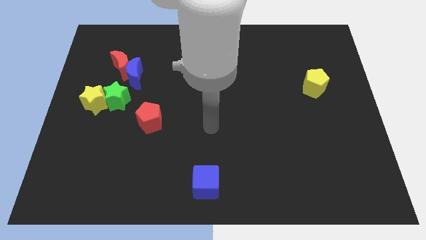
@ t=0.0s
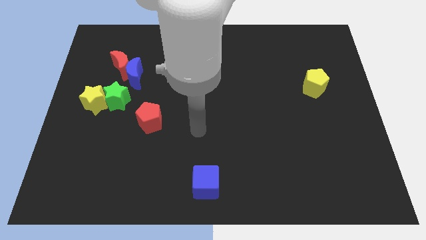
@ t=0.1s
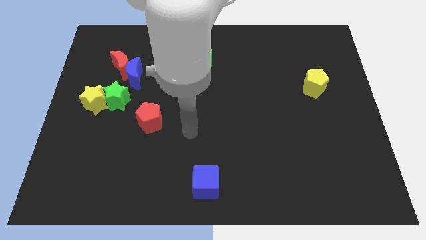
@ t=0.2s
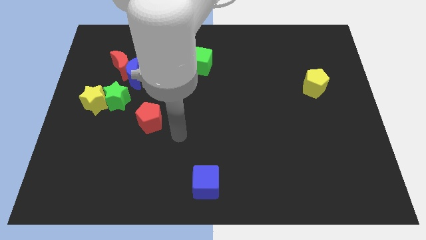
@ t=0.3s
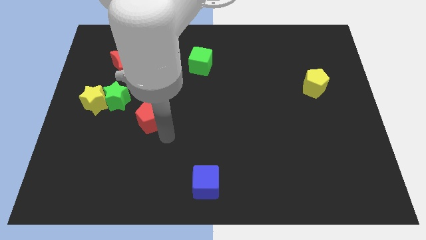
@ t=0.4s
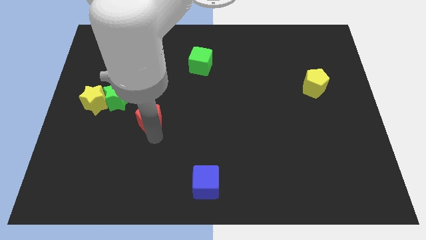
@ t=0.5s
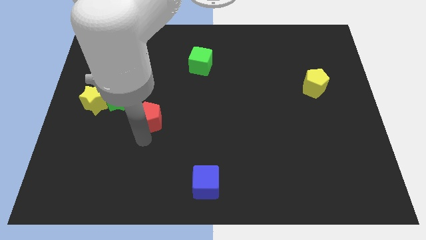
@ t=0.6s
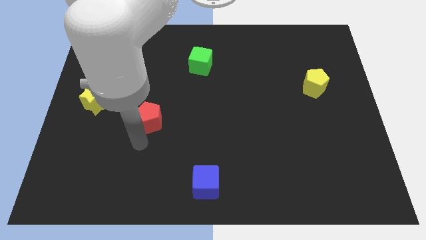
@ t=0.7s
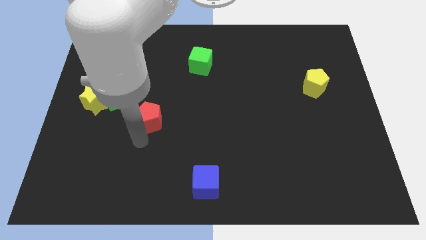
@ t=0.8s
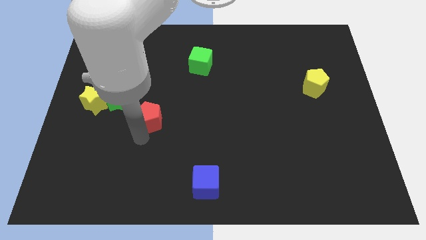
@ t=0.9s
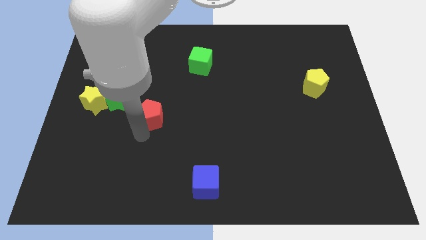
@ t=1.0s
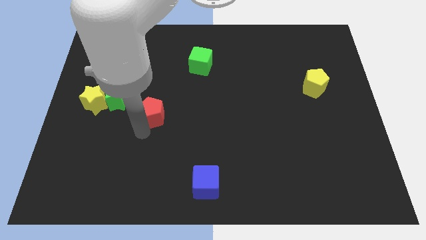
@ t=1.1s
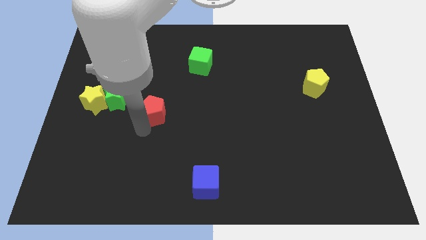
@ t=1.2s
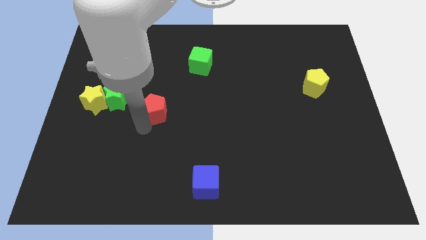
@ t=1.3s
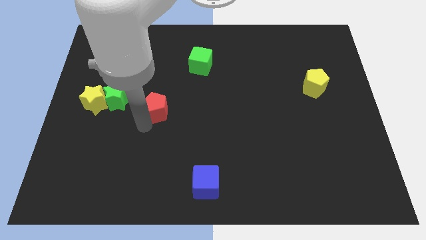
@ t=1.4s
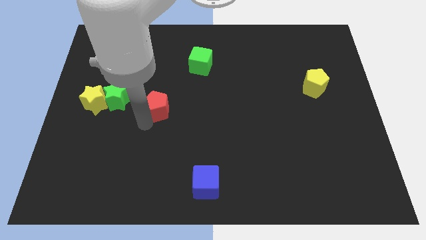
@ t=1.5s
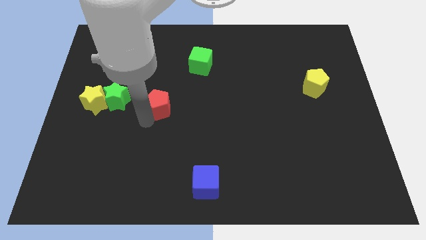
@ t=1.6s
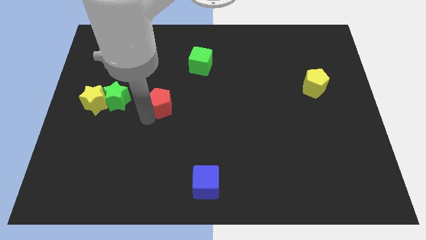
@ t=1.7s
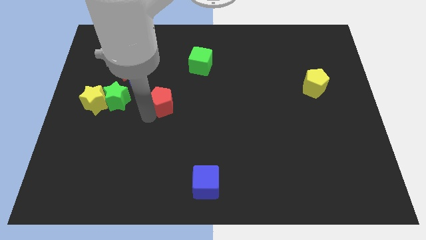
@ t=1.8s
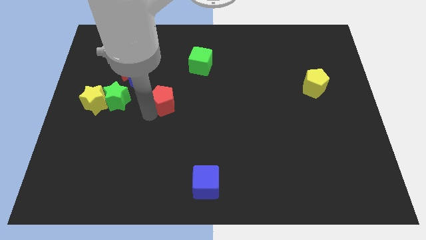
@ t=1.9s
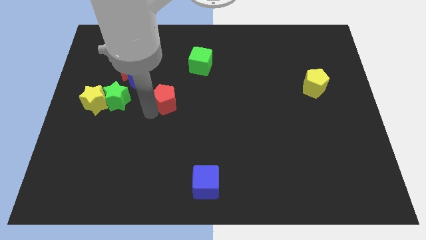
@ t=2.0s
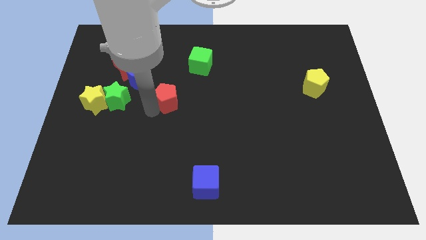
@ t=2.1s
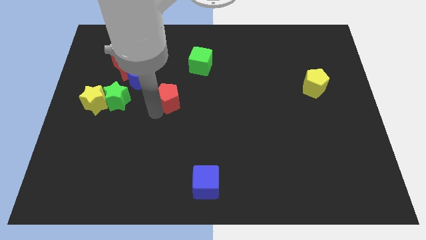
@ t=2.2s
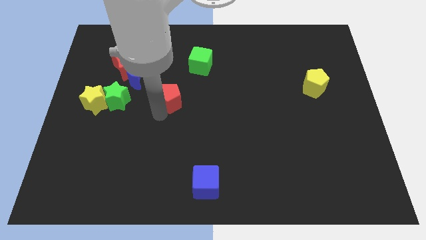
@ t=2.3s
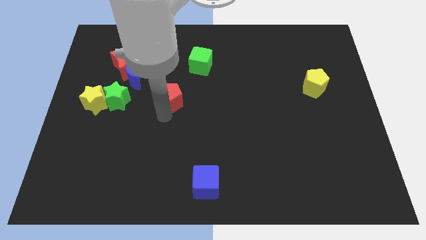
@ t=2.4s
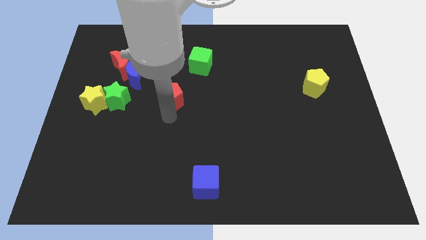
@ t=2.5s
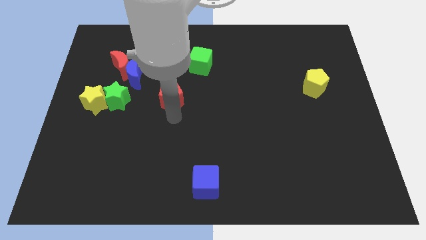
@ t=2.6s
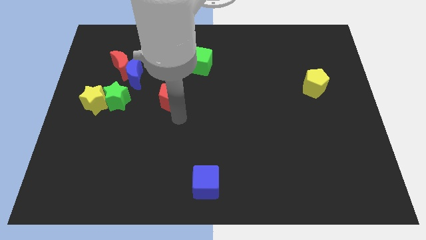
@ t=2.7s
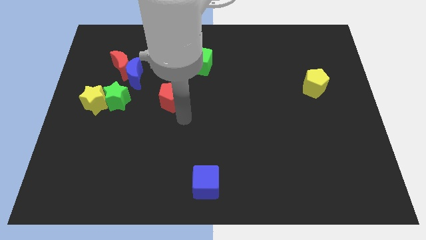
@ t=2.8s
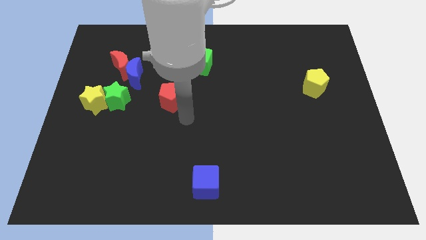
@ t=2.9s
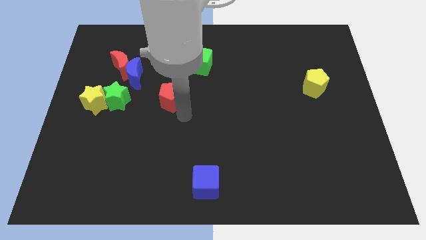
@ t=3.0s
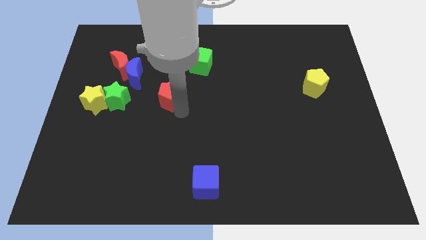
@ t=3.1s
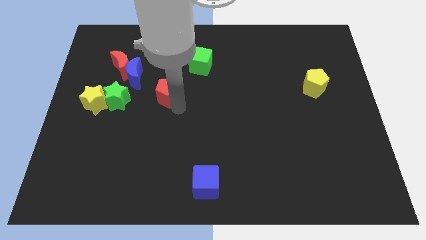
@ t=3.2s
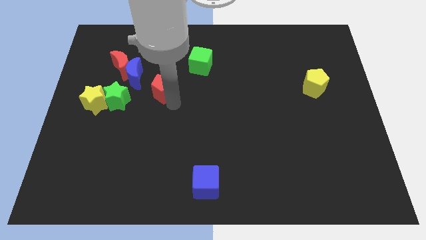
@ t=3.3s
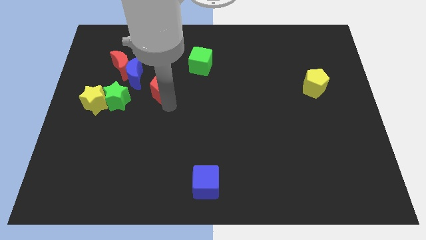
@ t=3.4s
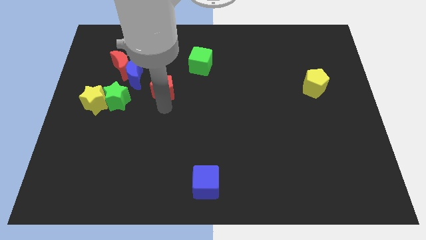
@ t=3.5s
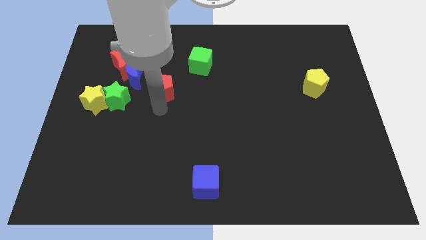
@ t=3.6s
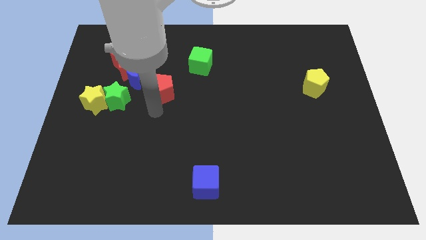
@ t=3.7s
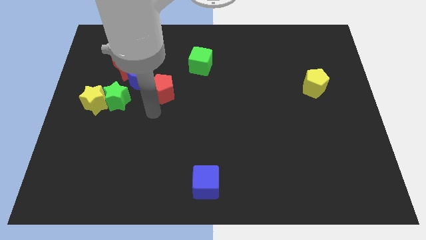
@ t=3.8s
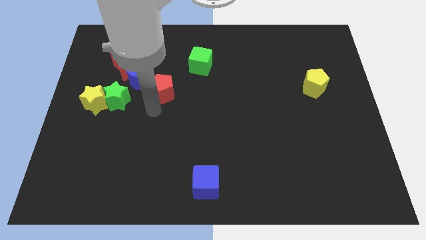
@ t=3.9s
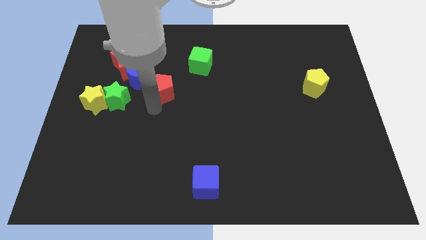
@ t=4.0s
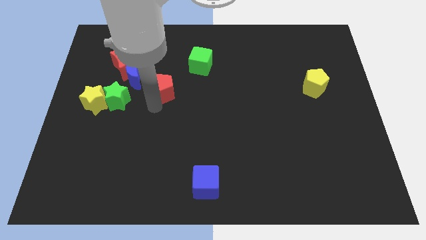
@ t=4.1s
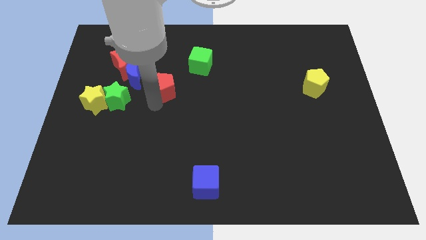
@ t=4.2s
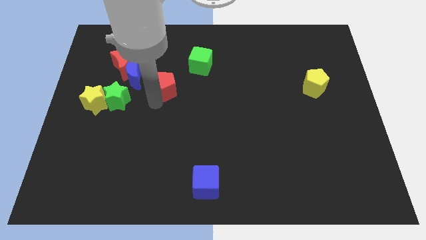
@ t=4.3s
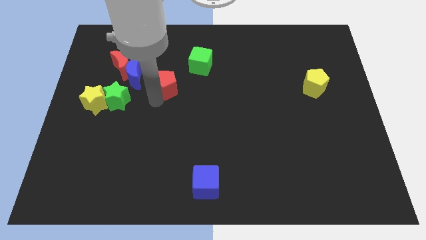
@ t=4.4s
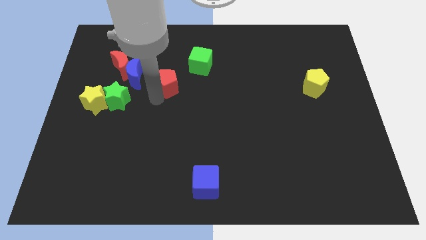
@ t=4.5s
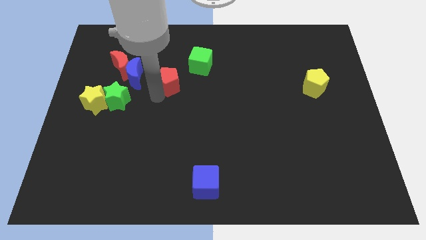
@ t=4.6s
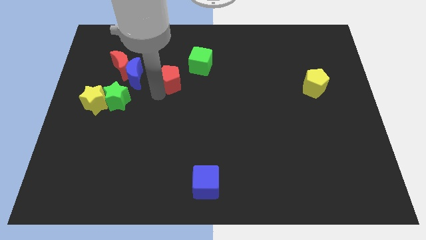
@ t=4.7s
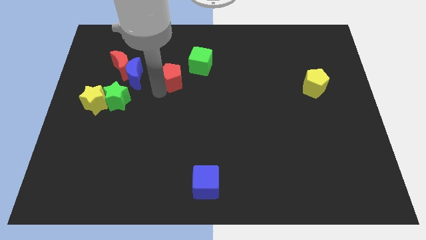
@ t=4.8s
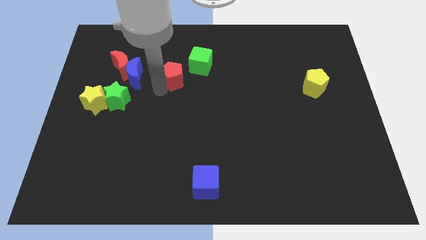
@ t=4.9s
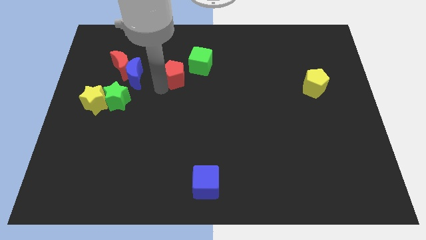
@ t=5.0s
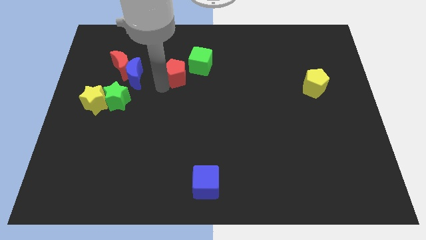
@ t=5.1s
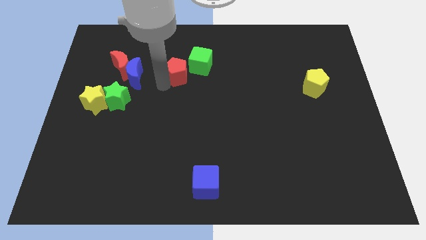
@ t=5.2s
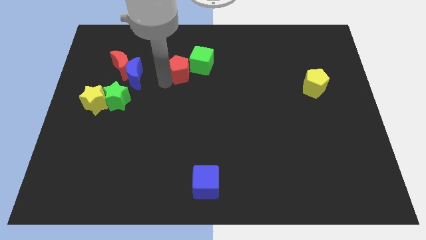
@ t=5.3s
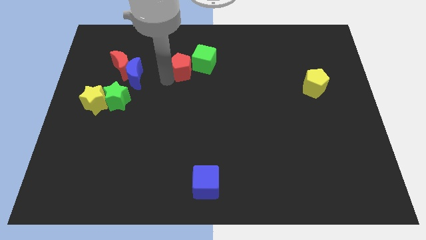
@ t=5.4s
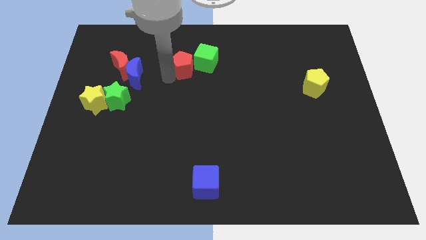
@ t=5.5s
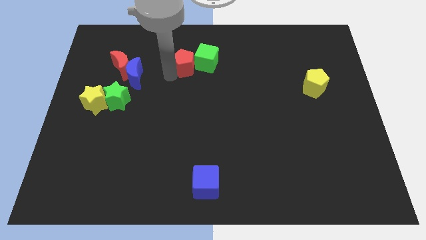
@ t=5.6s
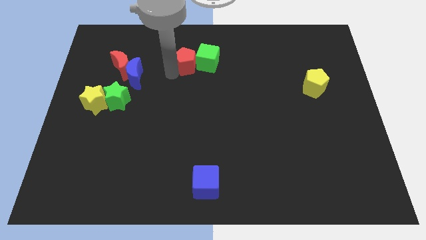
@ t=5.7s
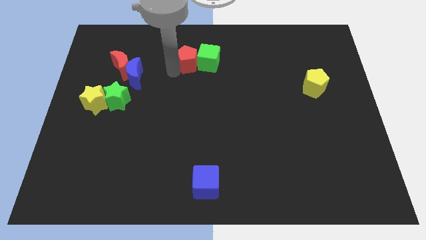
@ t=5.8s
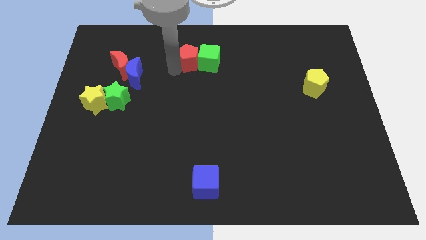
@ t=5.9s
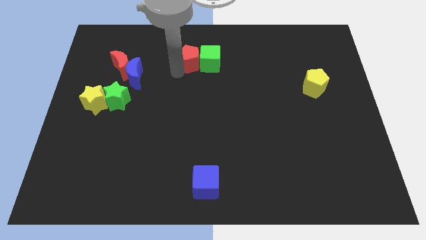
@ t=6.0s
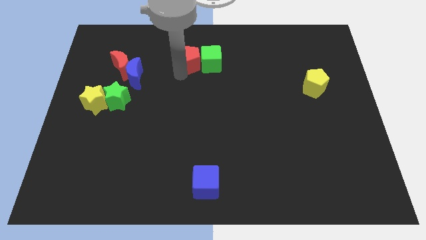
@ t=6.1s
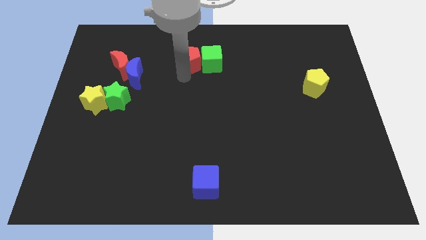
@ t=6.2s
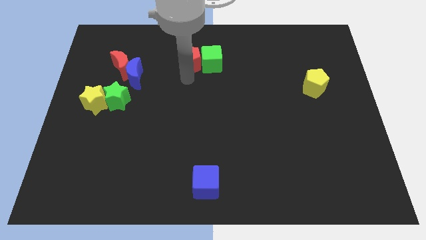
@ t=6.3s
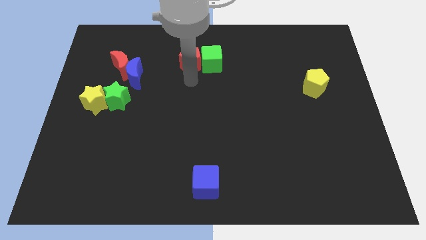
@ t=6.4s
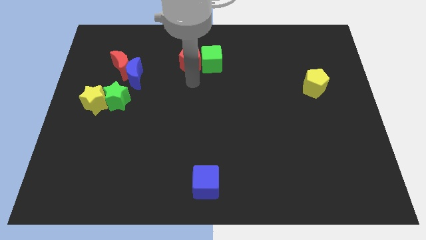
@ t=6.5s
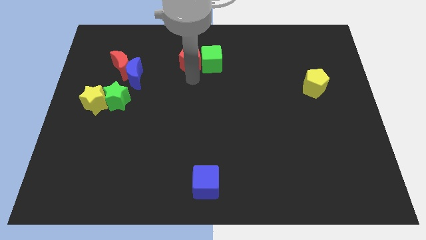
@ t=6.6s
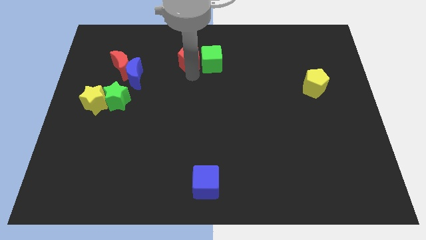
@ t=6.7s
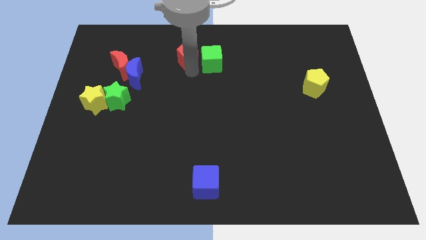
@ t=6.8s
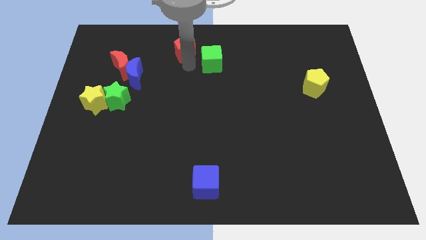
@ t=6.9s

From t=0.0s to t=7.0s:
put the red pentagon to the top side
